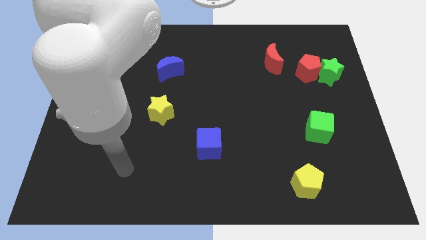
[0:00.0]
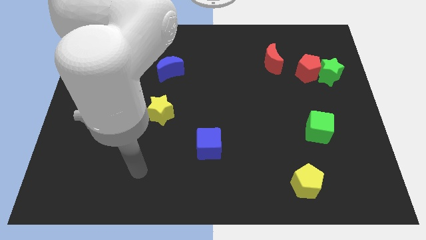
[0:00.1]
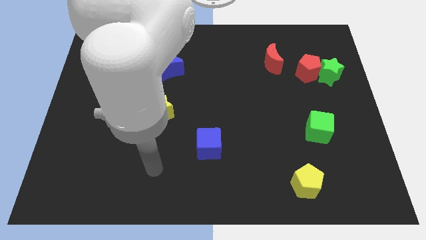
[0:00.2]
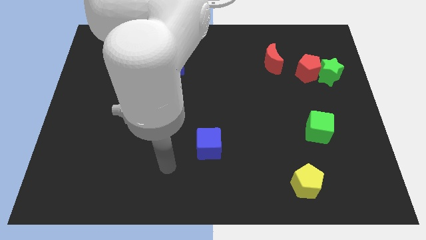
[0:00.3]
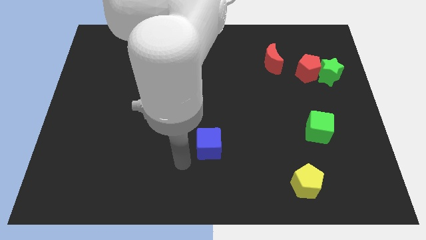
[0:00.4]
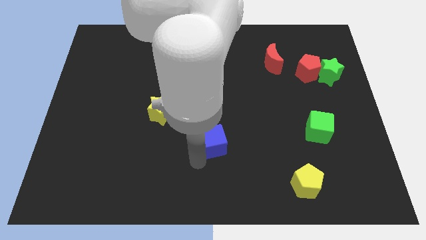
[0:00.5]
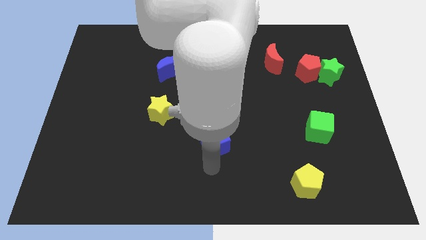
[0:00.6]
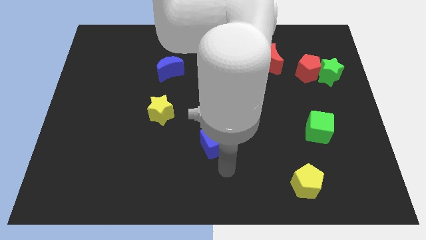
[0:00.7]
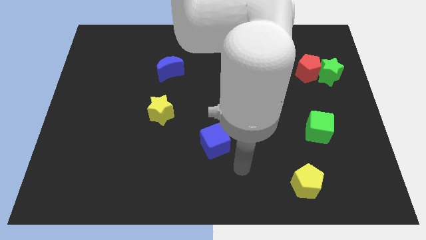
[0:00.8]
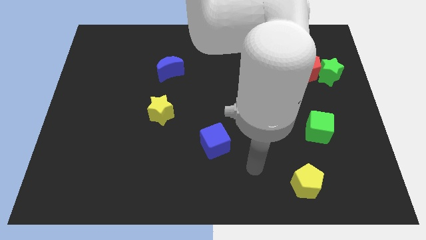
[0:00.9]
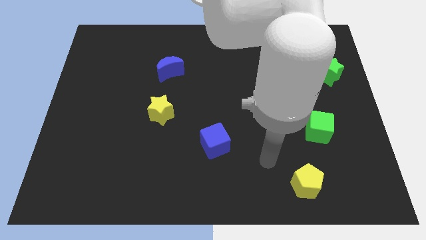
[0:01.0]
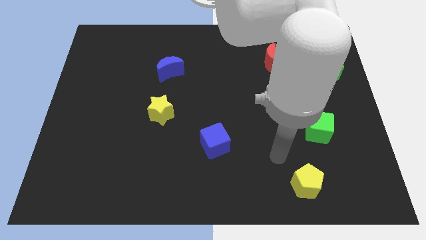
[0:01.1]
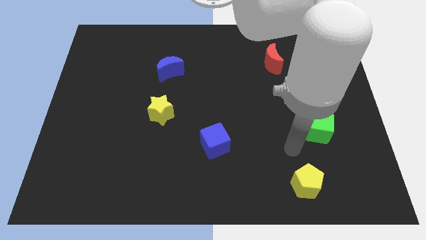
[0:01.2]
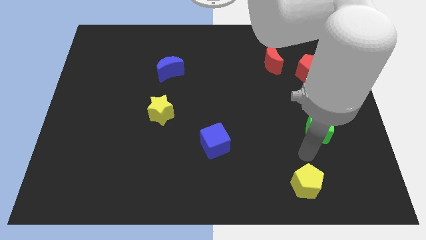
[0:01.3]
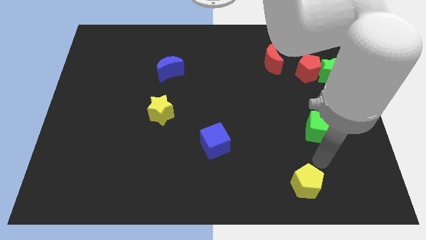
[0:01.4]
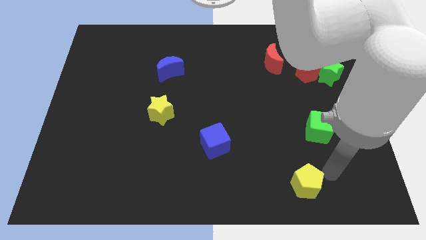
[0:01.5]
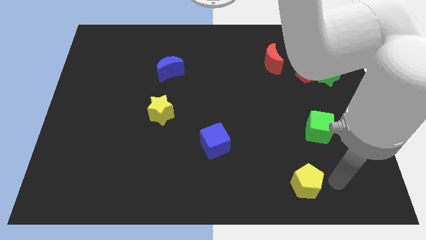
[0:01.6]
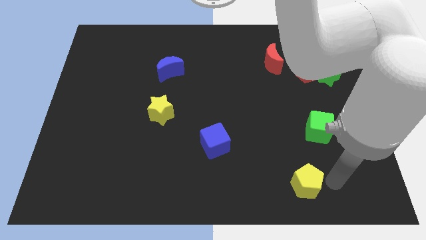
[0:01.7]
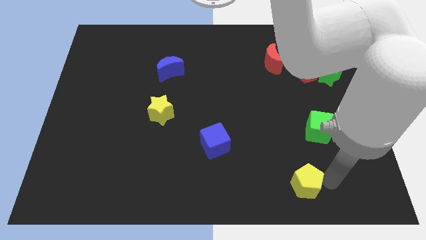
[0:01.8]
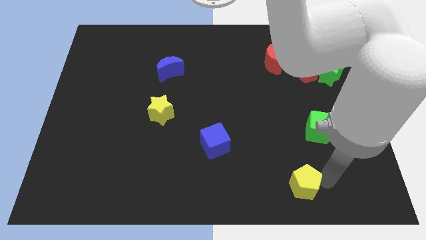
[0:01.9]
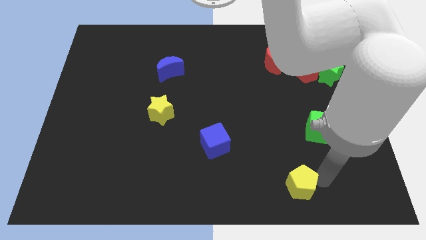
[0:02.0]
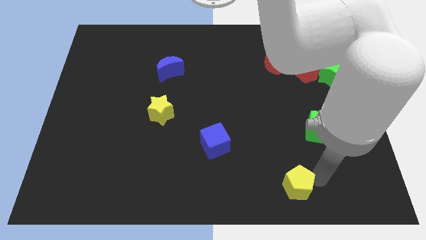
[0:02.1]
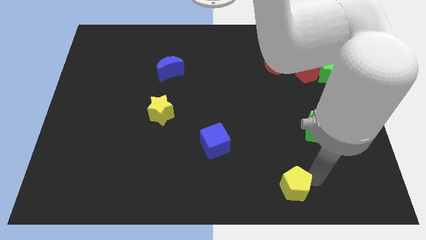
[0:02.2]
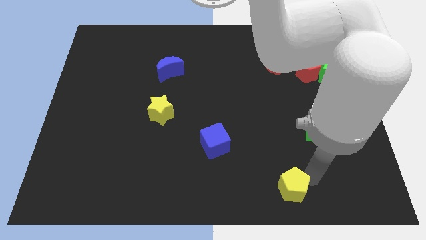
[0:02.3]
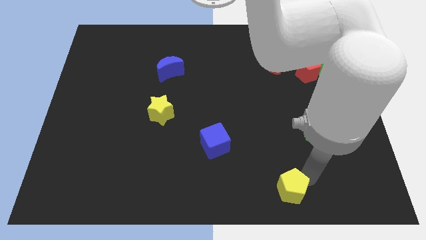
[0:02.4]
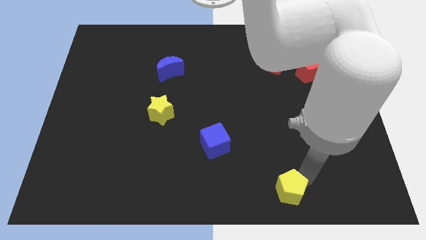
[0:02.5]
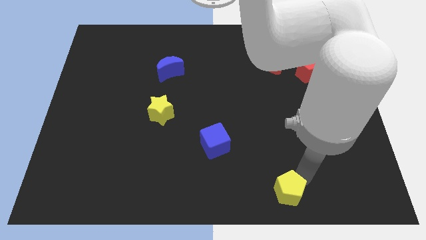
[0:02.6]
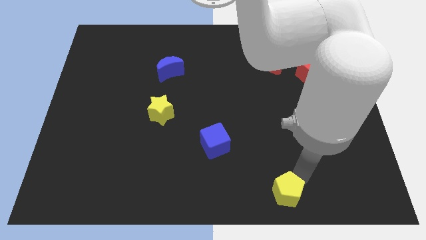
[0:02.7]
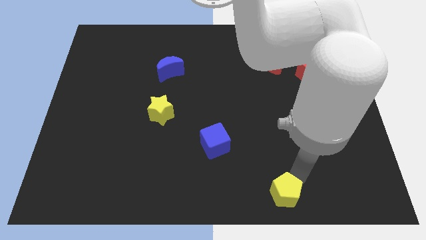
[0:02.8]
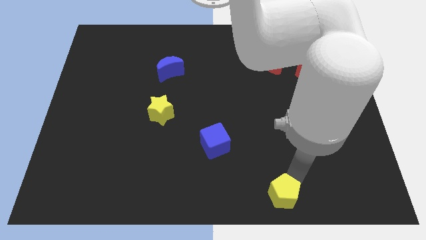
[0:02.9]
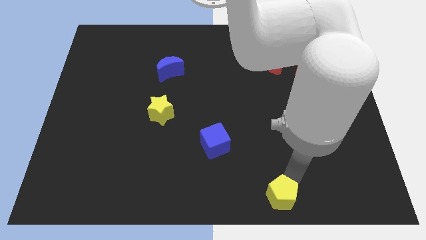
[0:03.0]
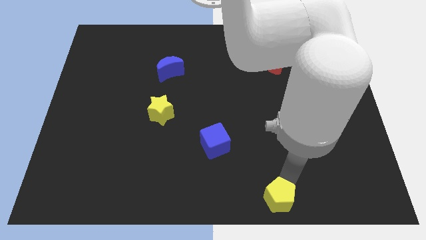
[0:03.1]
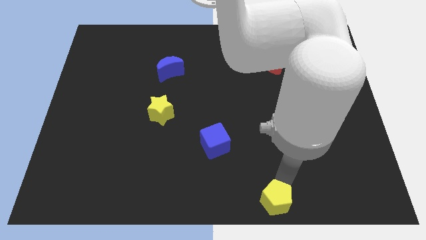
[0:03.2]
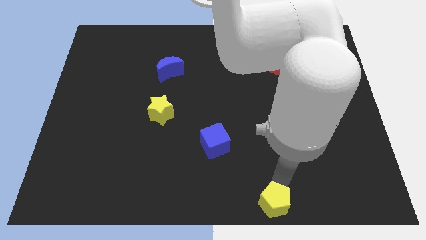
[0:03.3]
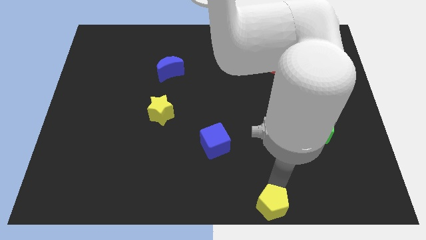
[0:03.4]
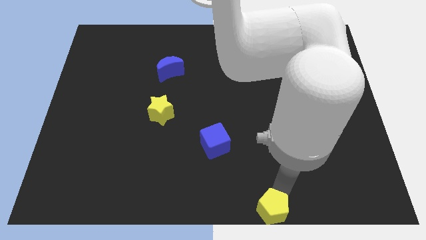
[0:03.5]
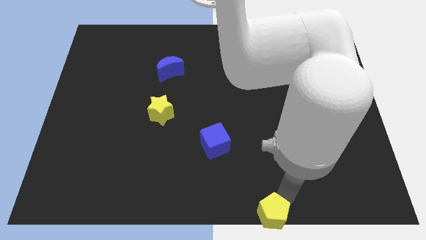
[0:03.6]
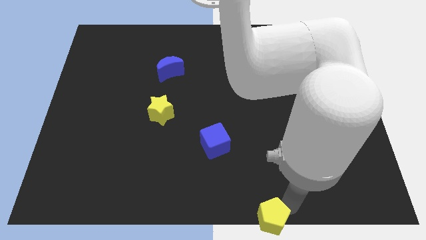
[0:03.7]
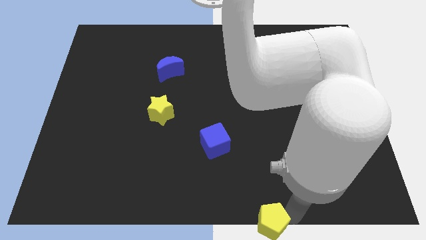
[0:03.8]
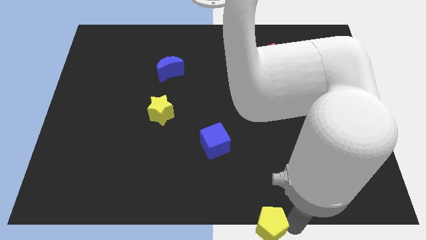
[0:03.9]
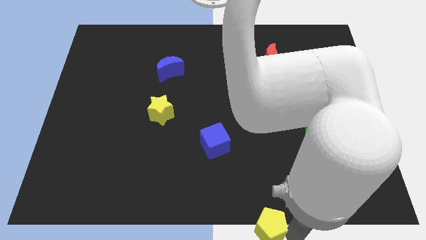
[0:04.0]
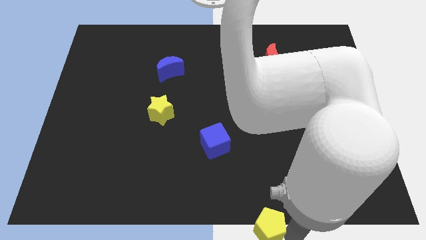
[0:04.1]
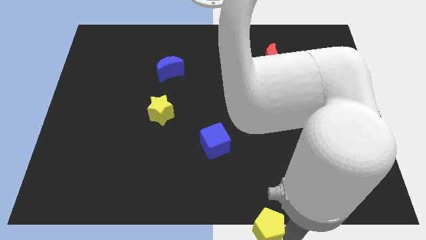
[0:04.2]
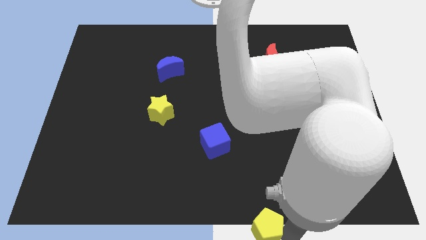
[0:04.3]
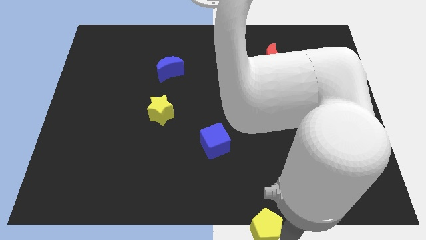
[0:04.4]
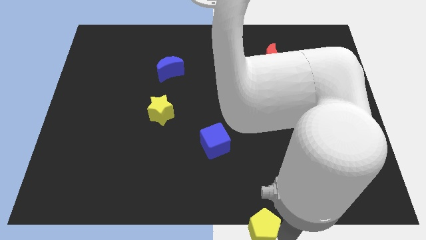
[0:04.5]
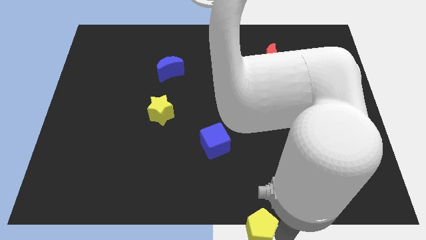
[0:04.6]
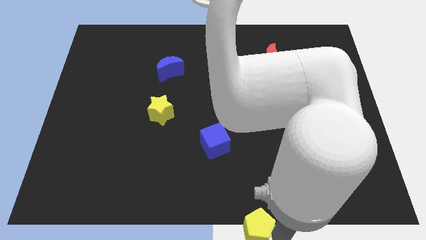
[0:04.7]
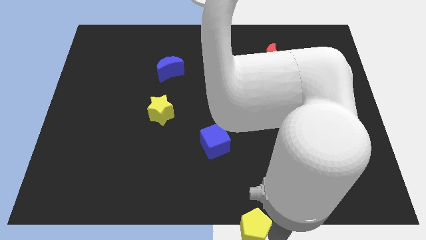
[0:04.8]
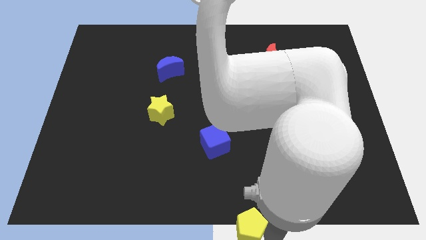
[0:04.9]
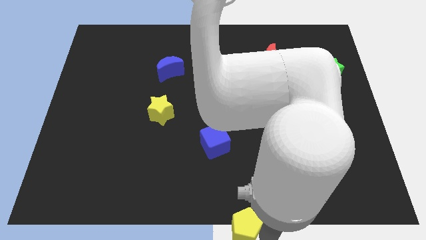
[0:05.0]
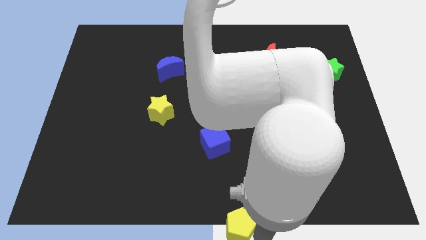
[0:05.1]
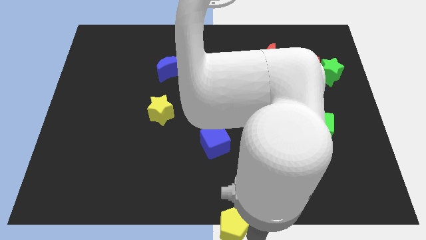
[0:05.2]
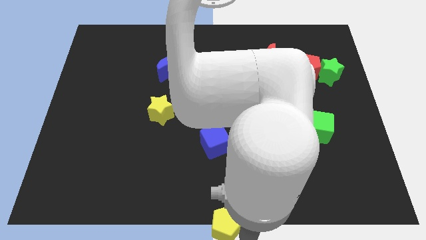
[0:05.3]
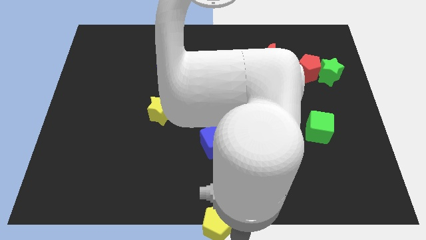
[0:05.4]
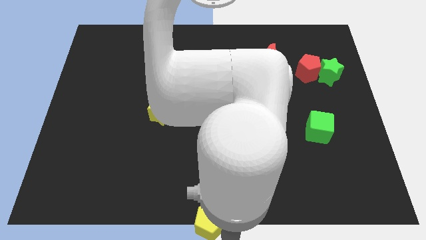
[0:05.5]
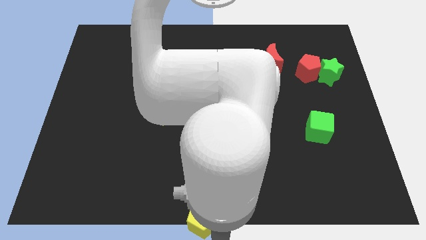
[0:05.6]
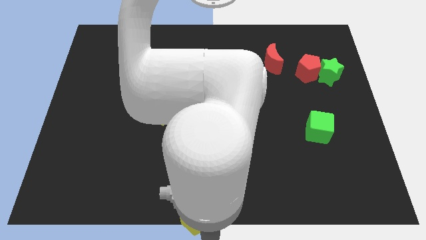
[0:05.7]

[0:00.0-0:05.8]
move the yellow pentagon to the left

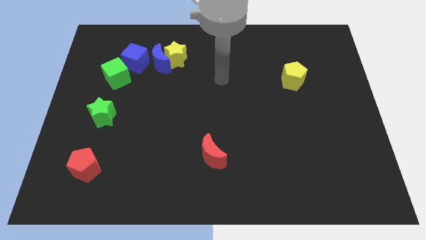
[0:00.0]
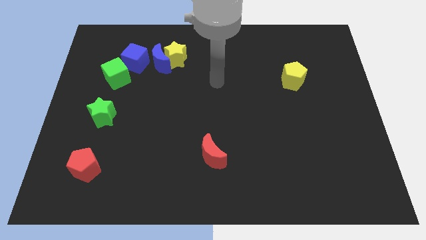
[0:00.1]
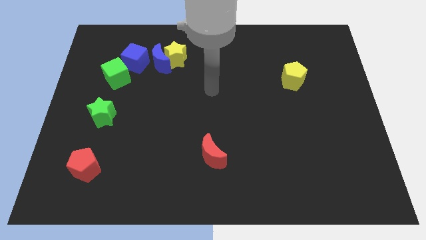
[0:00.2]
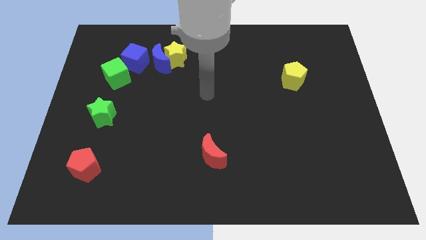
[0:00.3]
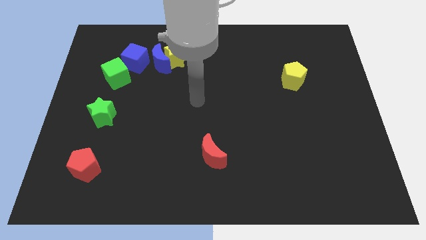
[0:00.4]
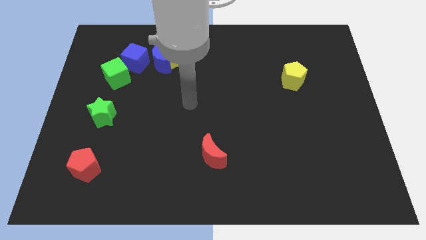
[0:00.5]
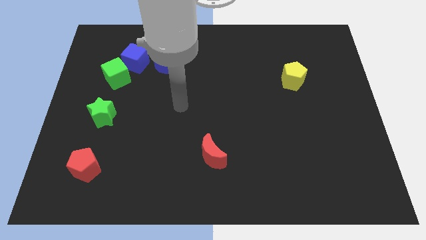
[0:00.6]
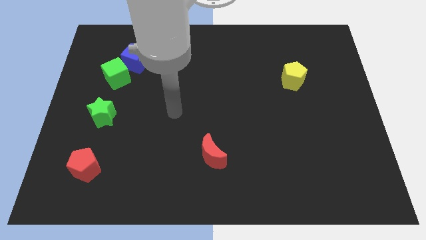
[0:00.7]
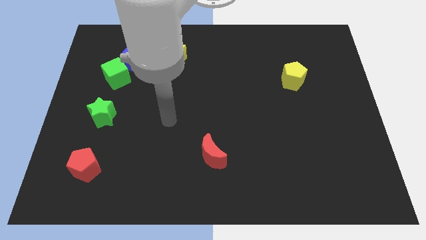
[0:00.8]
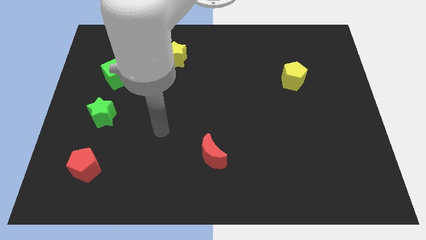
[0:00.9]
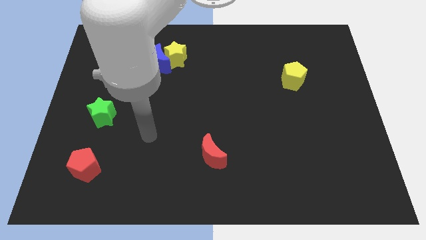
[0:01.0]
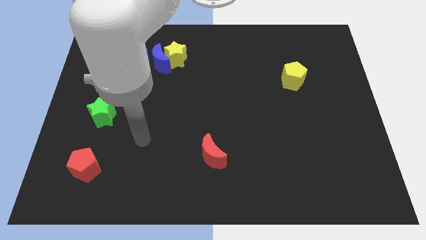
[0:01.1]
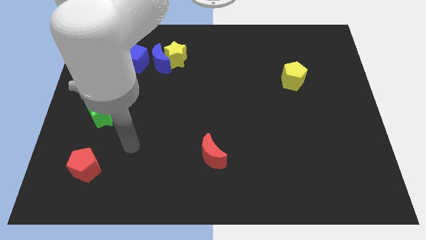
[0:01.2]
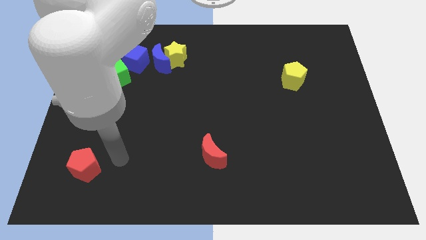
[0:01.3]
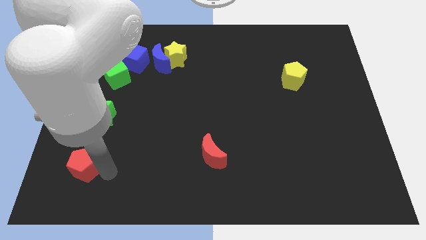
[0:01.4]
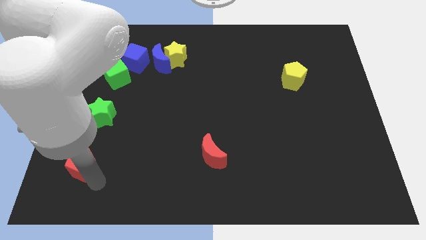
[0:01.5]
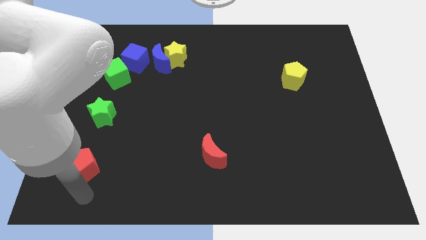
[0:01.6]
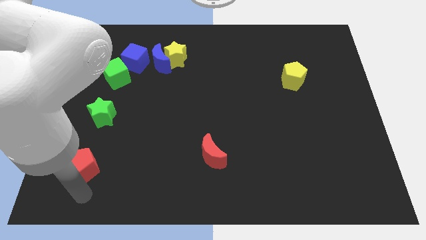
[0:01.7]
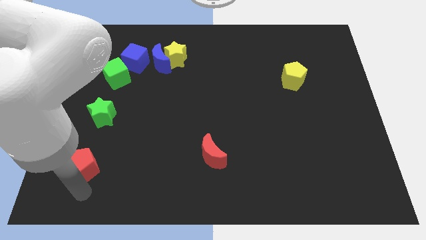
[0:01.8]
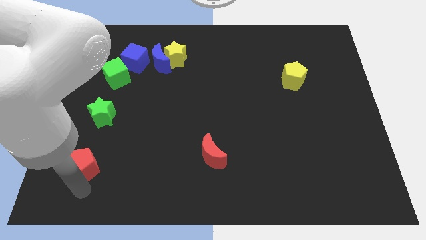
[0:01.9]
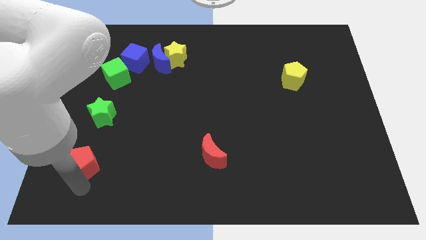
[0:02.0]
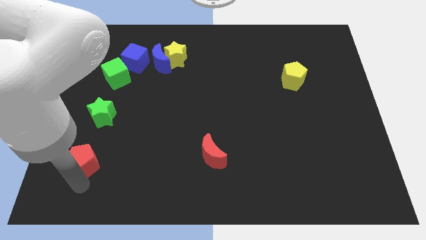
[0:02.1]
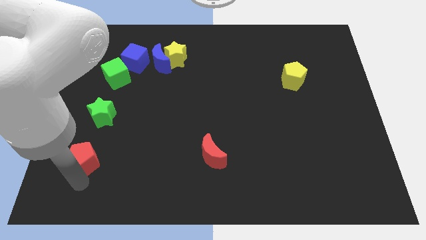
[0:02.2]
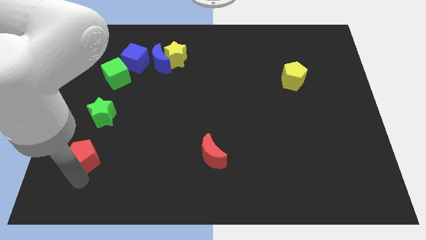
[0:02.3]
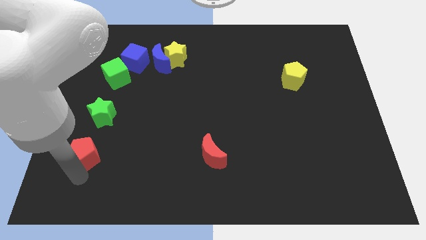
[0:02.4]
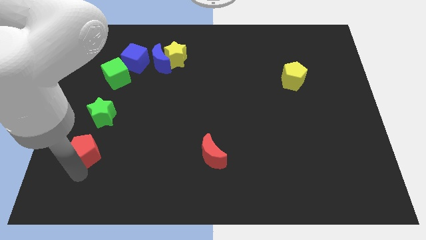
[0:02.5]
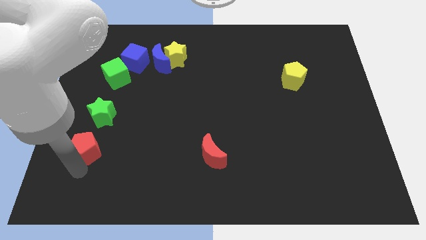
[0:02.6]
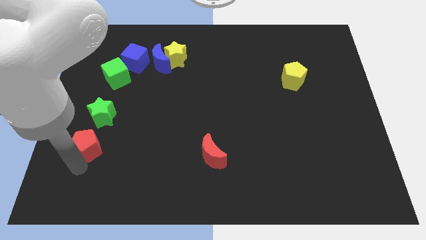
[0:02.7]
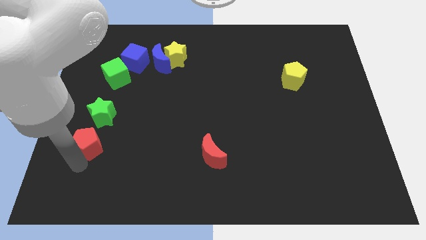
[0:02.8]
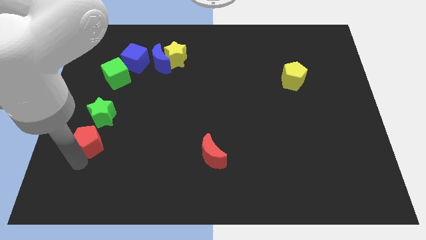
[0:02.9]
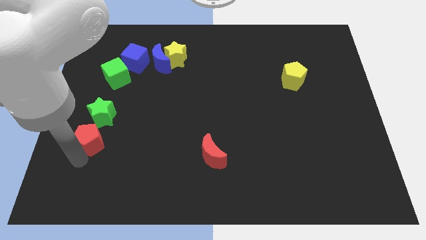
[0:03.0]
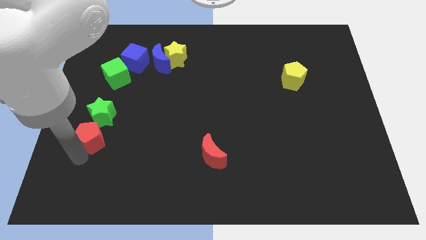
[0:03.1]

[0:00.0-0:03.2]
push the red pentagon somewhat upwards
